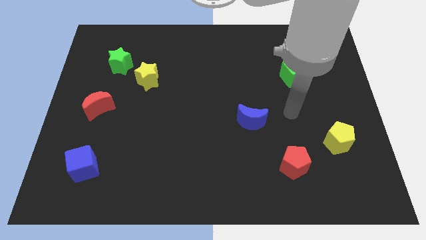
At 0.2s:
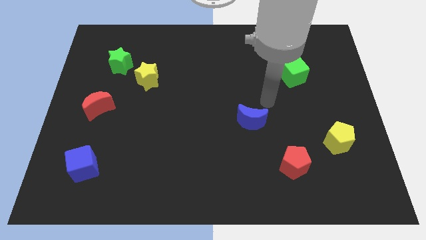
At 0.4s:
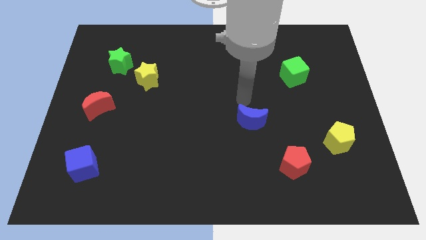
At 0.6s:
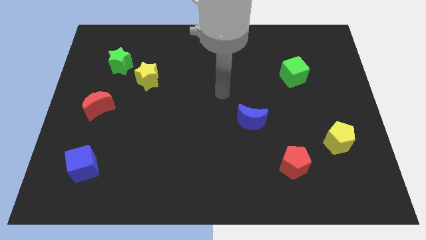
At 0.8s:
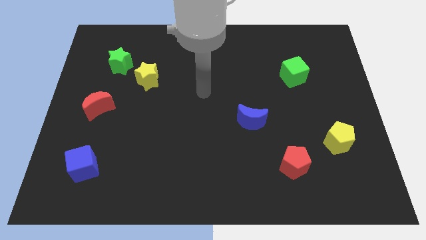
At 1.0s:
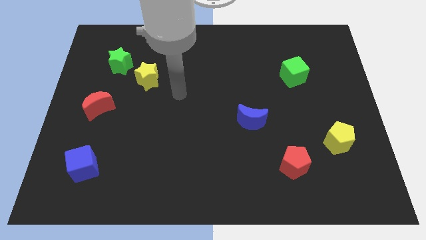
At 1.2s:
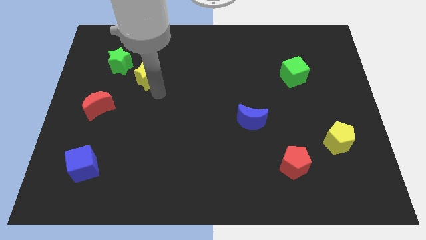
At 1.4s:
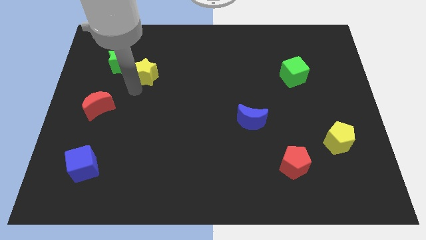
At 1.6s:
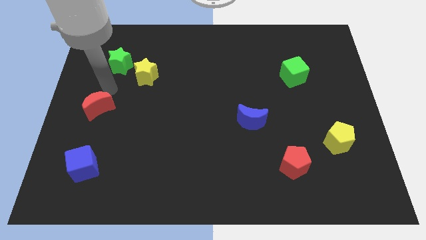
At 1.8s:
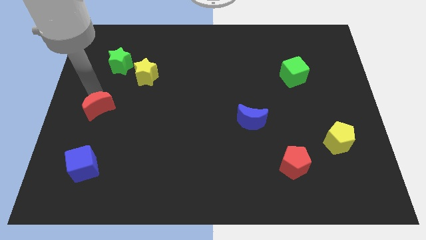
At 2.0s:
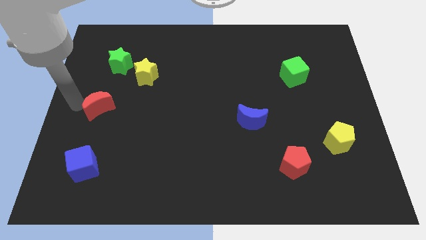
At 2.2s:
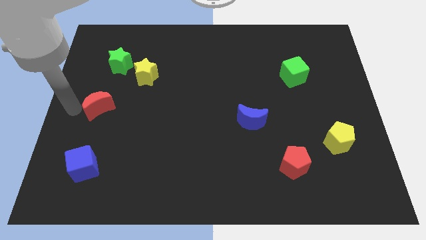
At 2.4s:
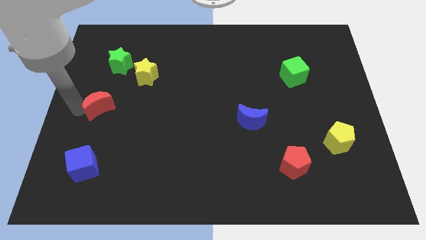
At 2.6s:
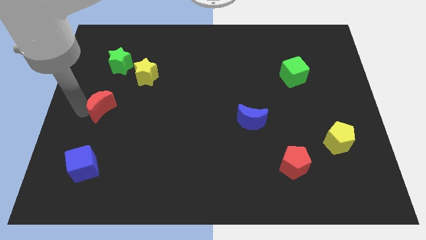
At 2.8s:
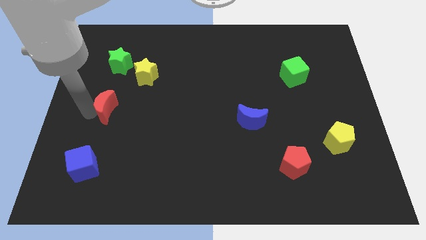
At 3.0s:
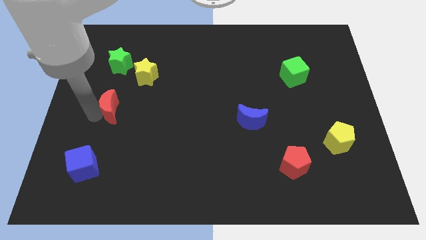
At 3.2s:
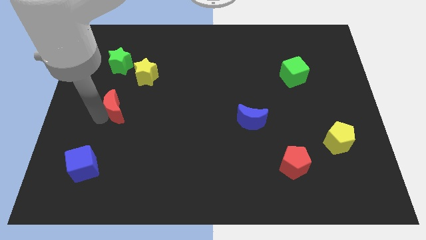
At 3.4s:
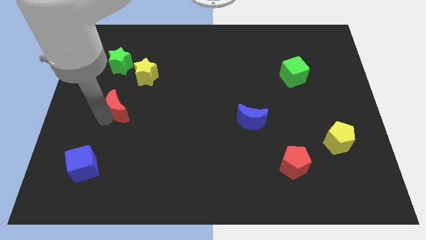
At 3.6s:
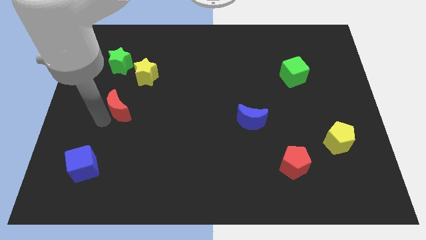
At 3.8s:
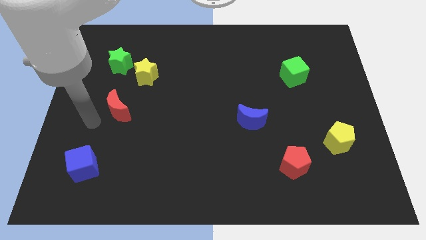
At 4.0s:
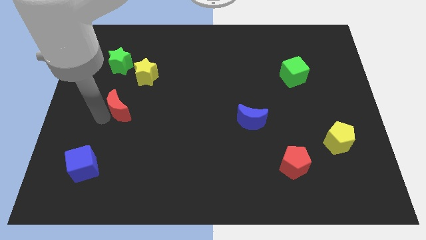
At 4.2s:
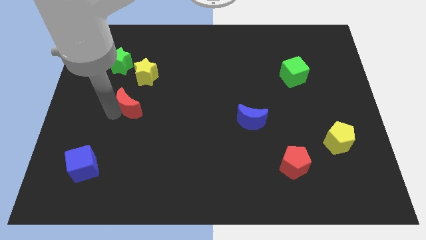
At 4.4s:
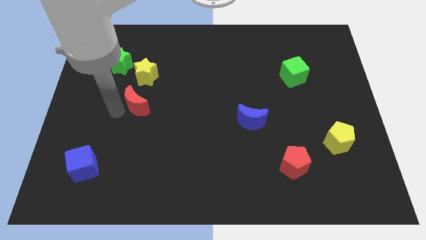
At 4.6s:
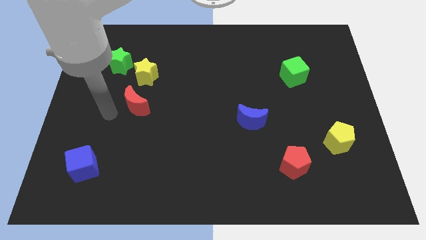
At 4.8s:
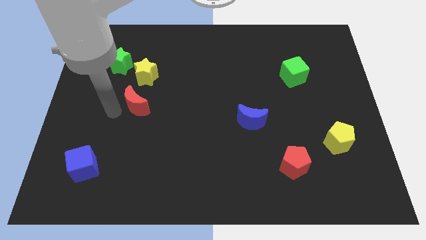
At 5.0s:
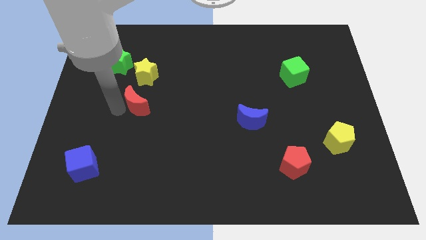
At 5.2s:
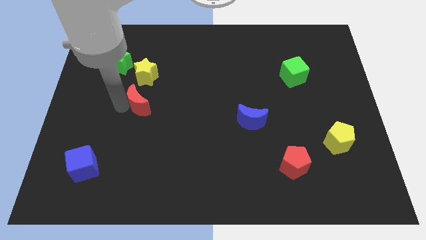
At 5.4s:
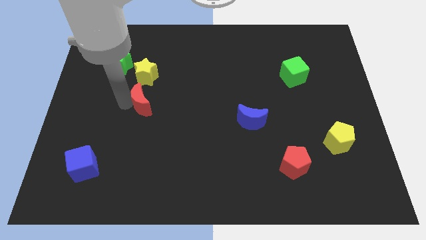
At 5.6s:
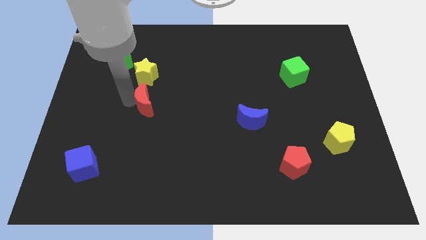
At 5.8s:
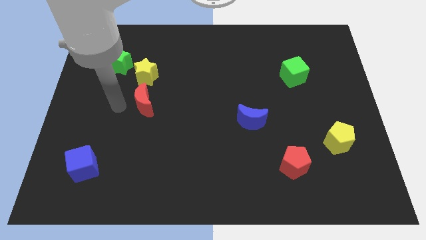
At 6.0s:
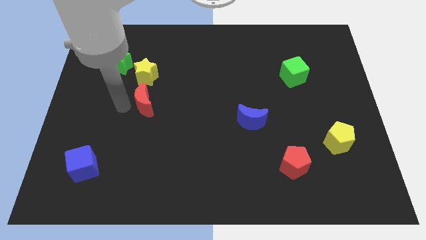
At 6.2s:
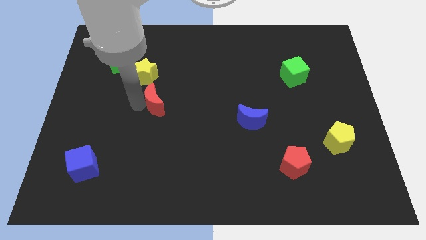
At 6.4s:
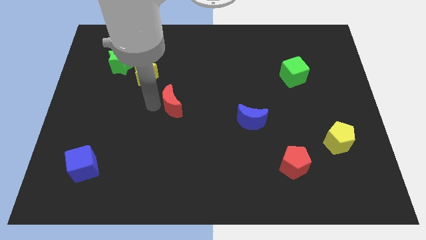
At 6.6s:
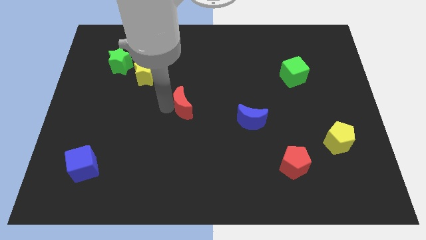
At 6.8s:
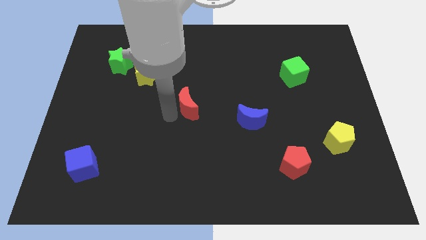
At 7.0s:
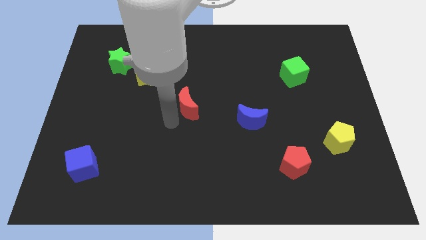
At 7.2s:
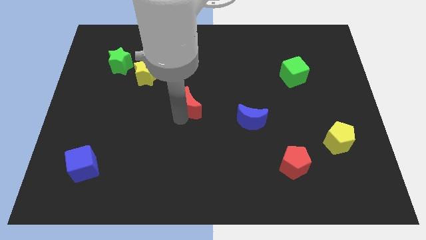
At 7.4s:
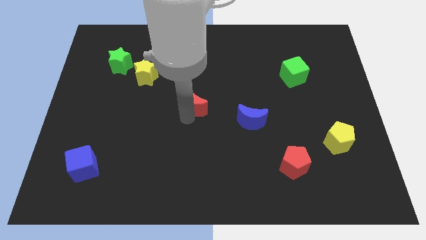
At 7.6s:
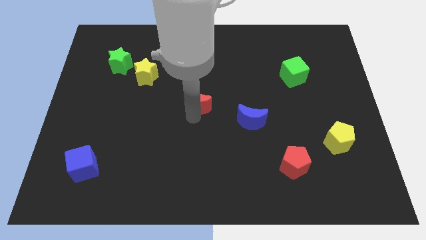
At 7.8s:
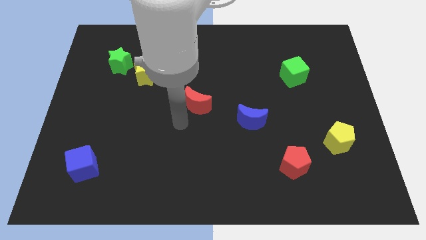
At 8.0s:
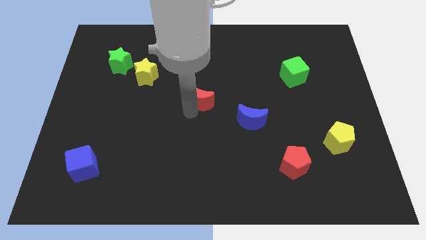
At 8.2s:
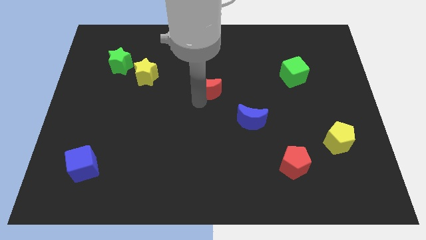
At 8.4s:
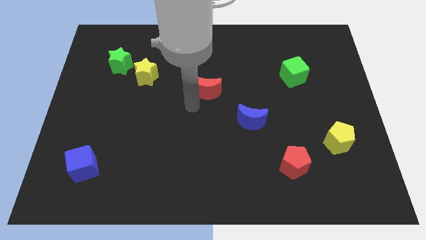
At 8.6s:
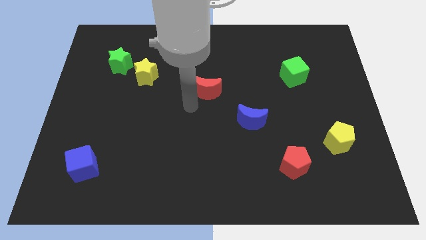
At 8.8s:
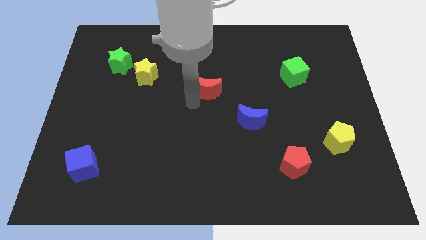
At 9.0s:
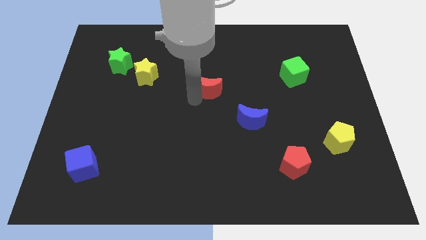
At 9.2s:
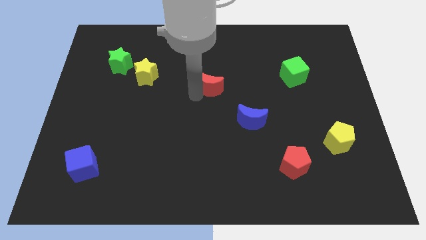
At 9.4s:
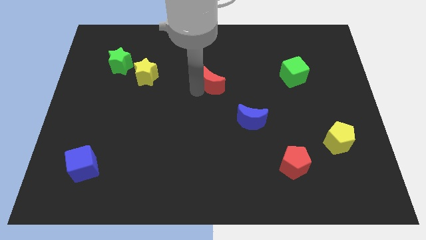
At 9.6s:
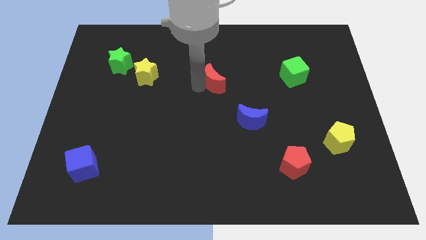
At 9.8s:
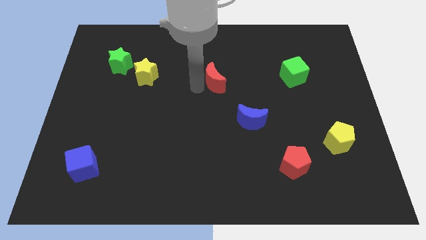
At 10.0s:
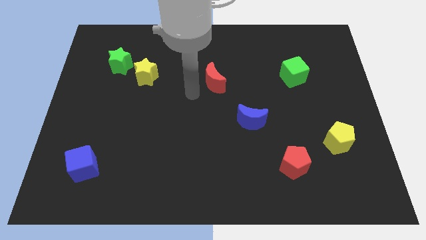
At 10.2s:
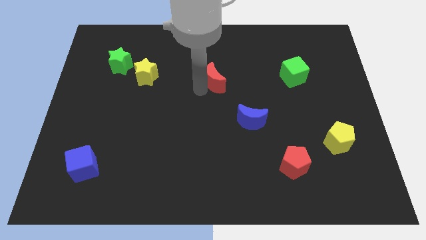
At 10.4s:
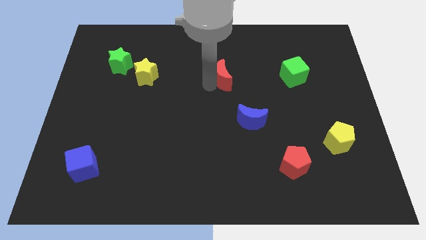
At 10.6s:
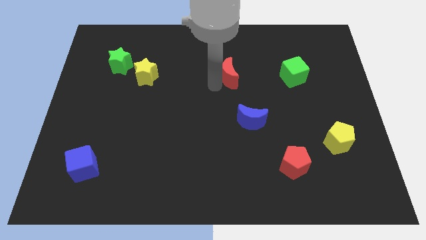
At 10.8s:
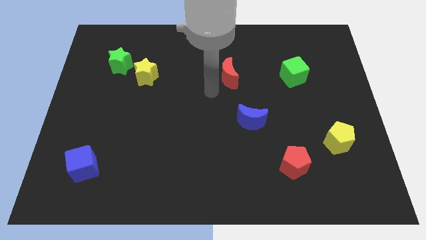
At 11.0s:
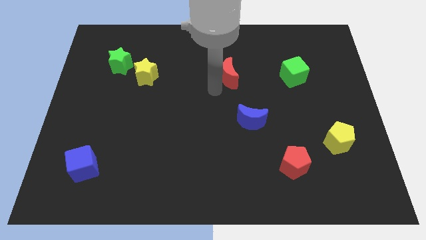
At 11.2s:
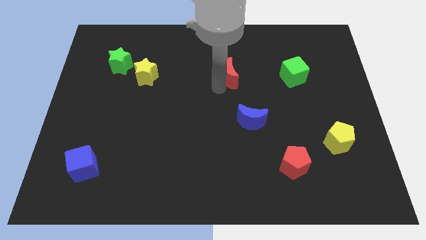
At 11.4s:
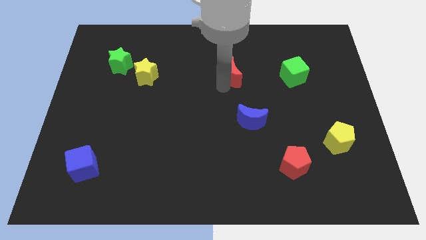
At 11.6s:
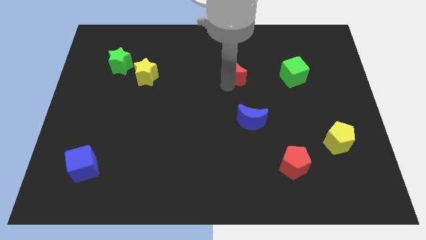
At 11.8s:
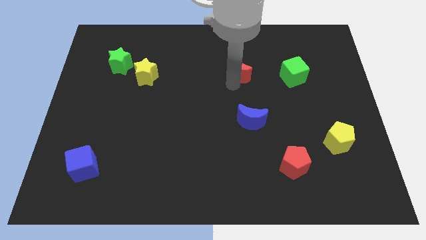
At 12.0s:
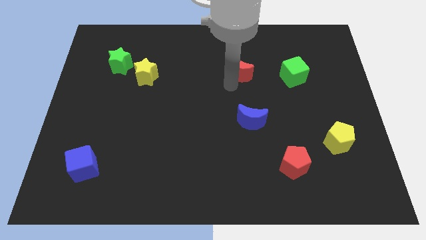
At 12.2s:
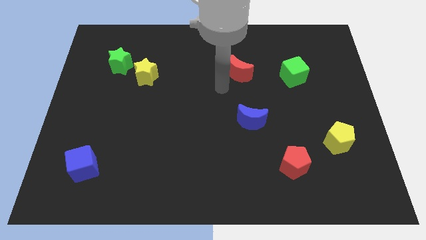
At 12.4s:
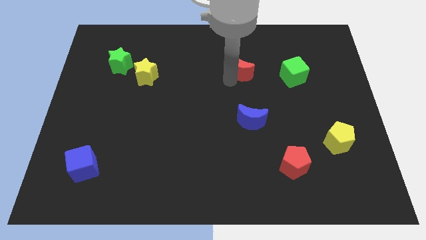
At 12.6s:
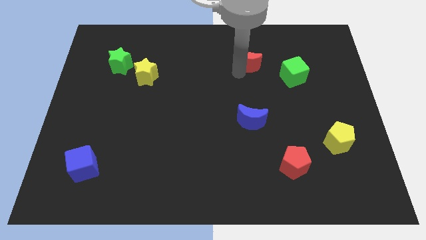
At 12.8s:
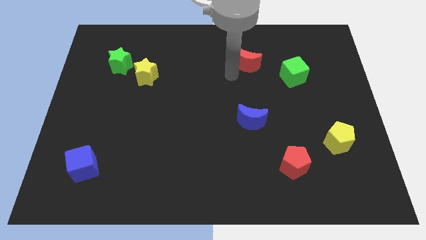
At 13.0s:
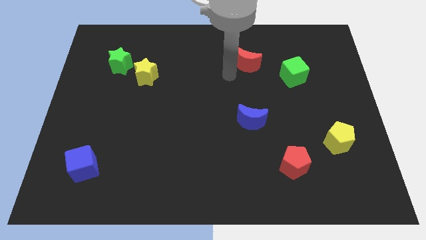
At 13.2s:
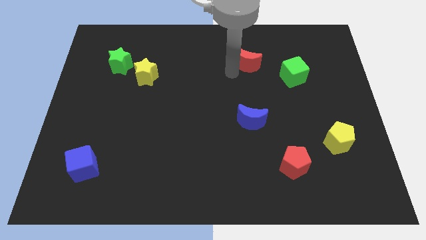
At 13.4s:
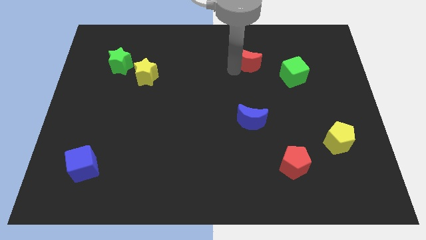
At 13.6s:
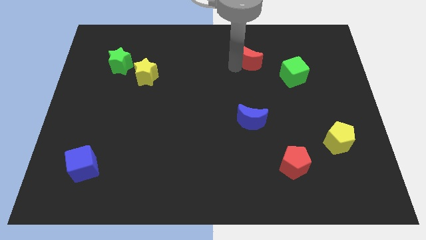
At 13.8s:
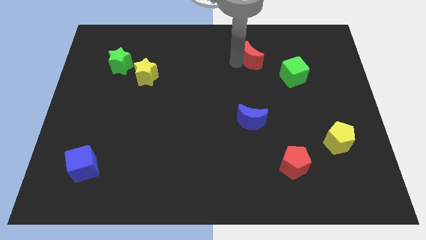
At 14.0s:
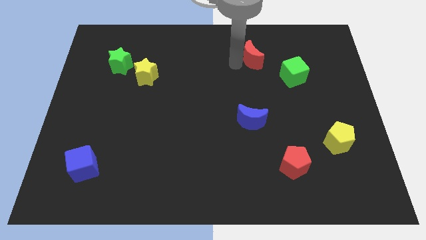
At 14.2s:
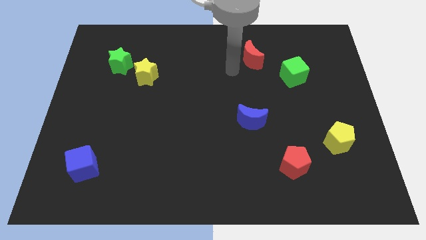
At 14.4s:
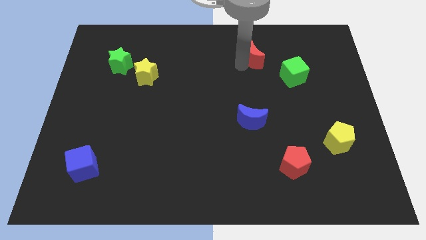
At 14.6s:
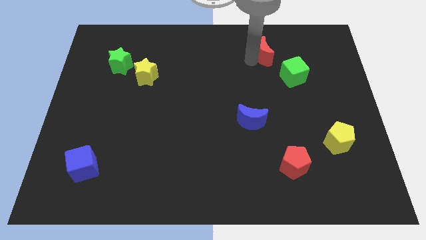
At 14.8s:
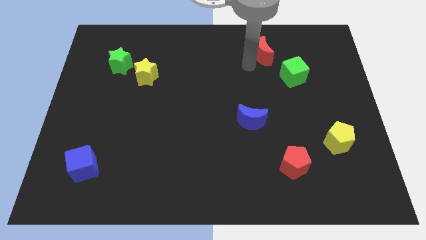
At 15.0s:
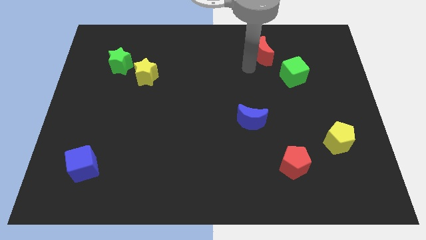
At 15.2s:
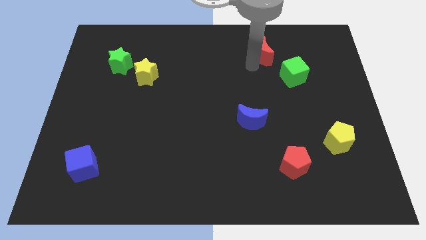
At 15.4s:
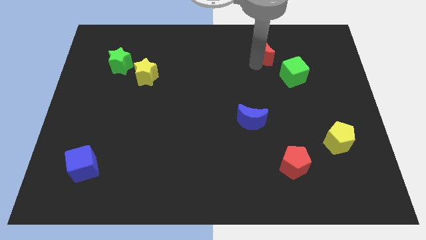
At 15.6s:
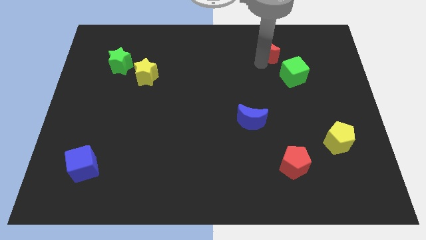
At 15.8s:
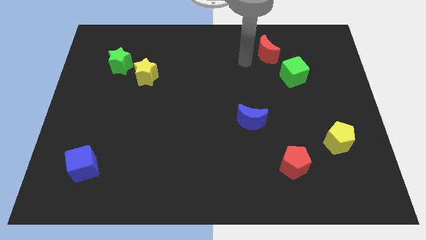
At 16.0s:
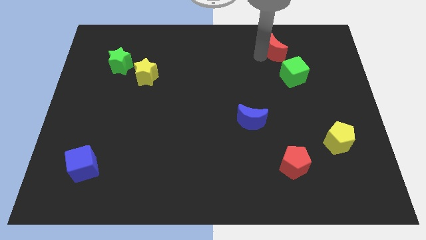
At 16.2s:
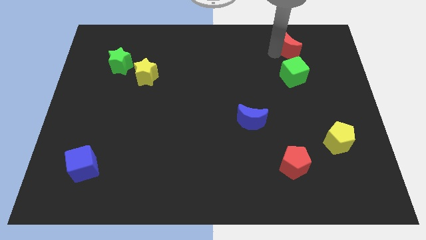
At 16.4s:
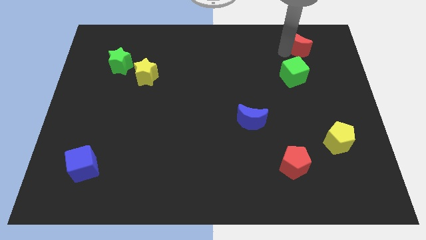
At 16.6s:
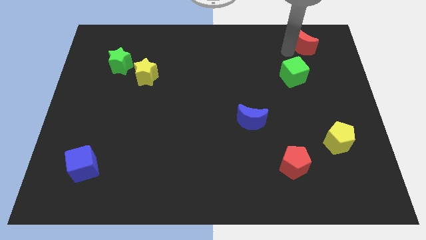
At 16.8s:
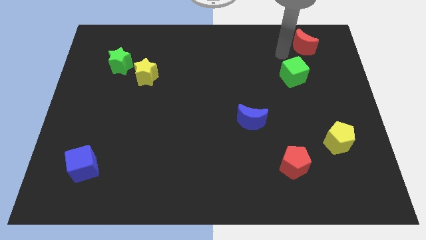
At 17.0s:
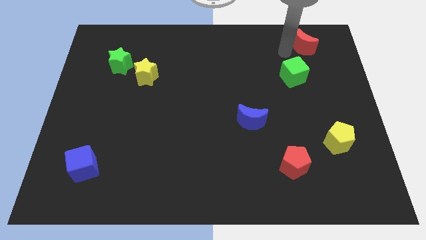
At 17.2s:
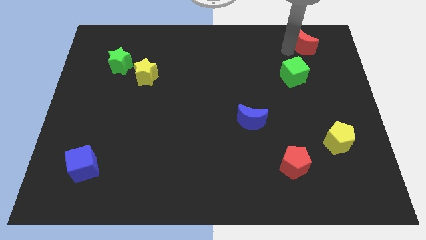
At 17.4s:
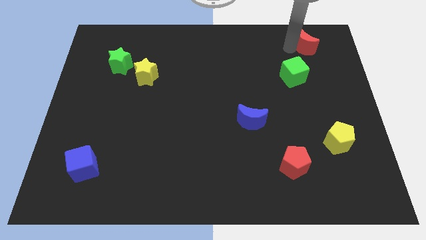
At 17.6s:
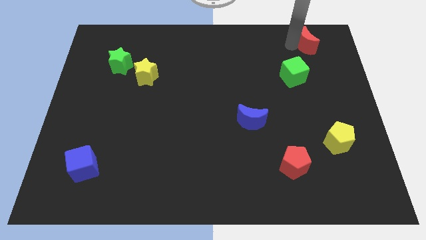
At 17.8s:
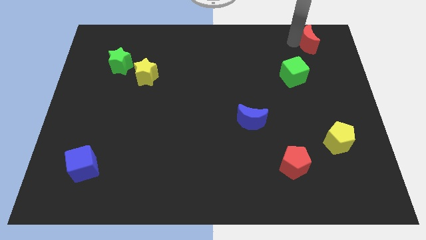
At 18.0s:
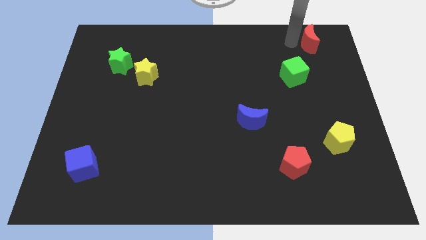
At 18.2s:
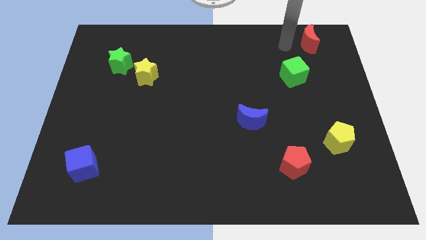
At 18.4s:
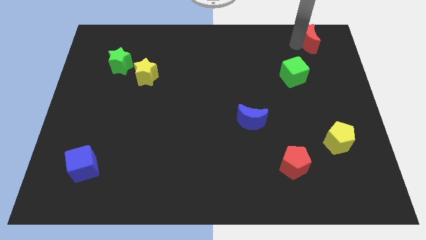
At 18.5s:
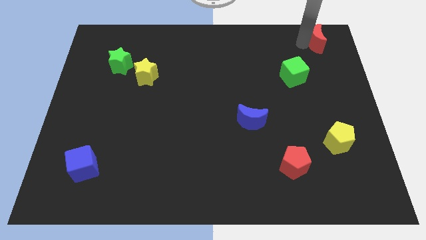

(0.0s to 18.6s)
move the red moon to the top right corner
